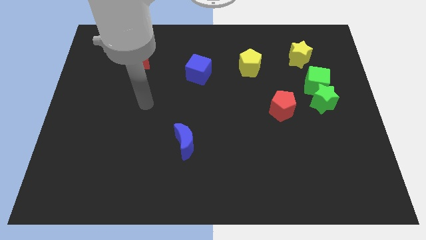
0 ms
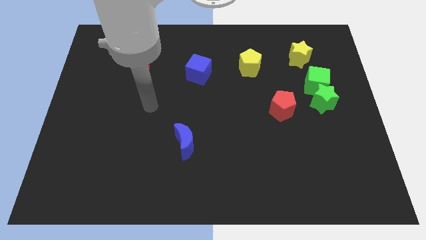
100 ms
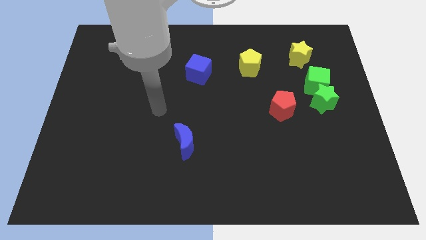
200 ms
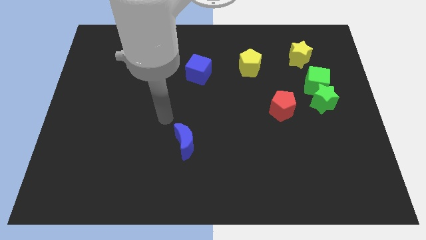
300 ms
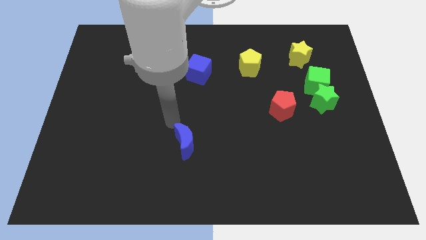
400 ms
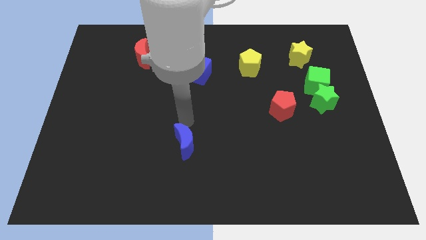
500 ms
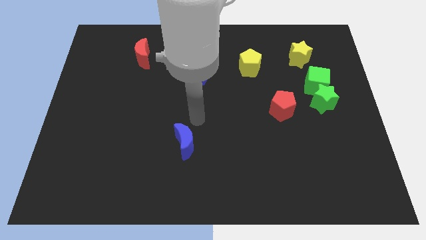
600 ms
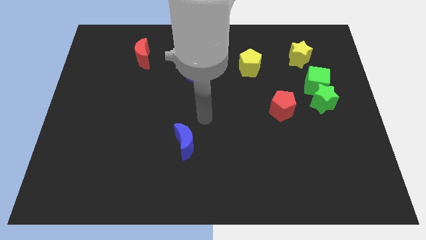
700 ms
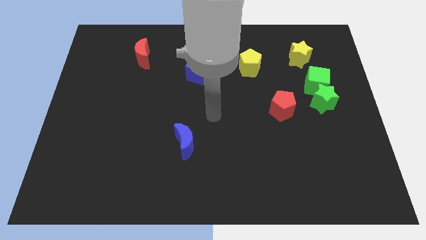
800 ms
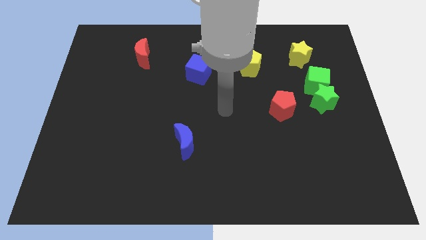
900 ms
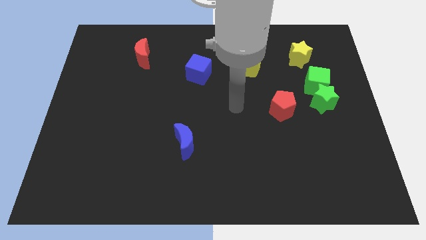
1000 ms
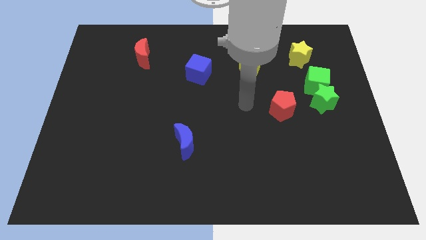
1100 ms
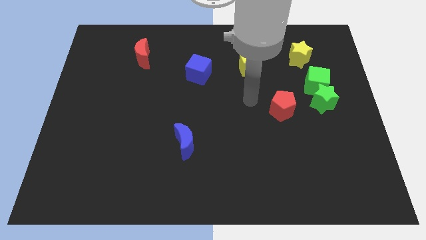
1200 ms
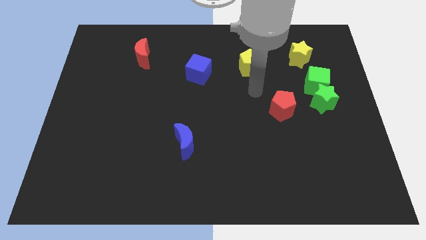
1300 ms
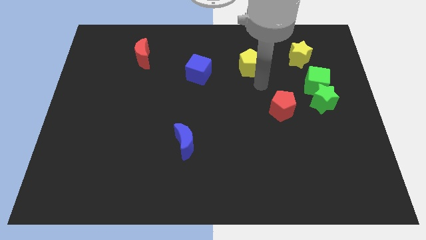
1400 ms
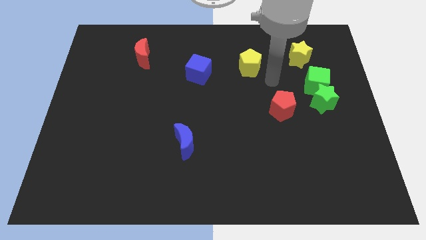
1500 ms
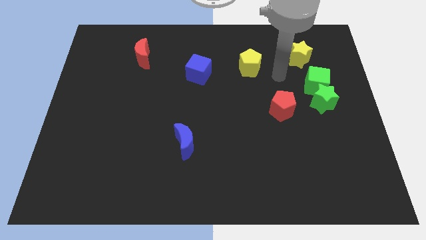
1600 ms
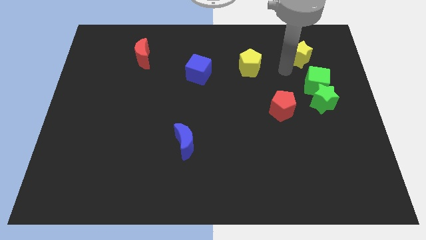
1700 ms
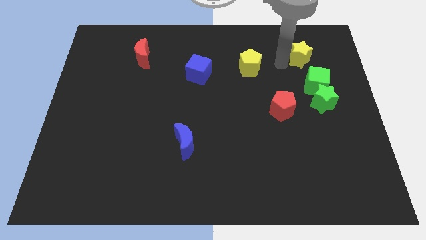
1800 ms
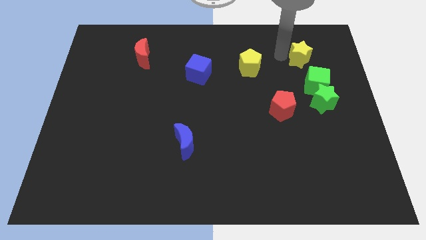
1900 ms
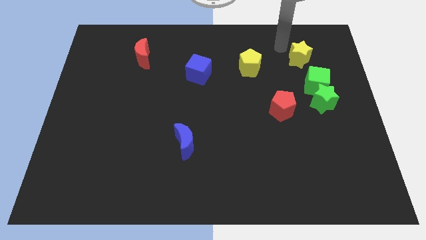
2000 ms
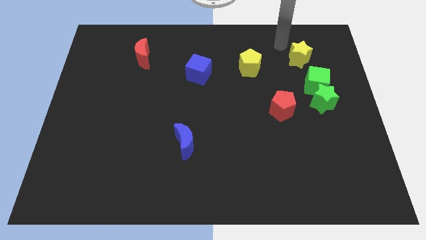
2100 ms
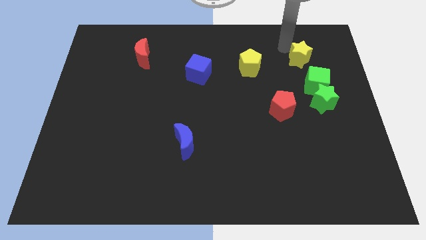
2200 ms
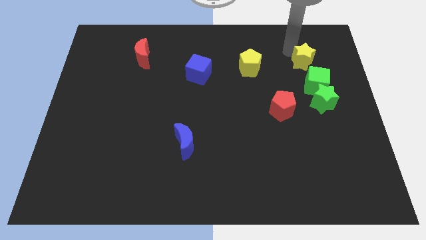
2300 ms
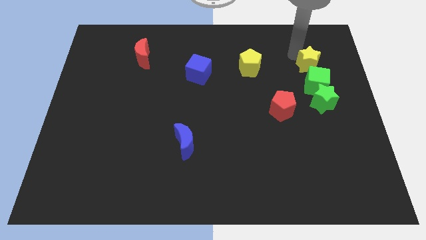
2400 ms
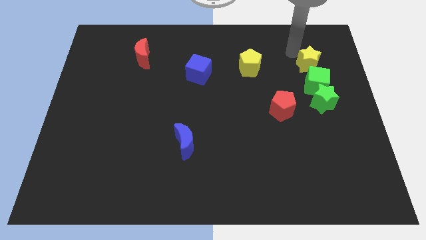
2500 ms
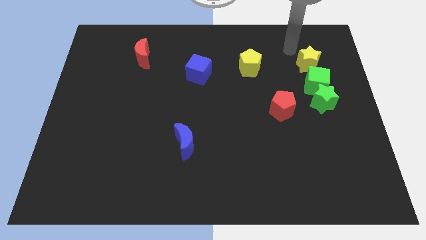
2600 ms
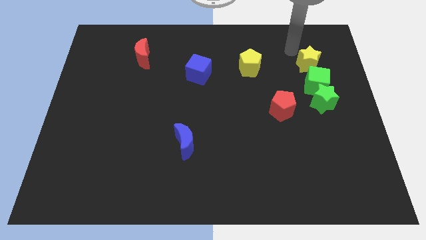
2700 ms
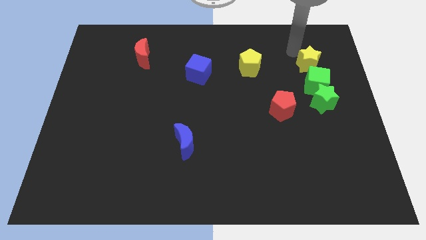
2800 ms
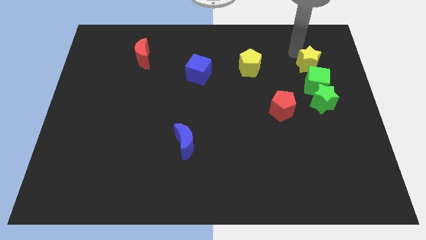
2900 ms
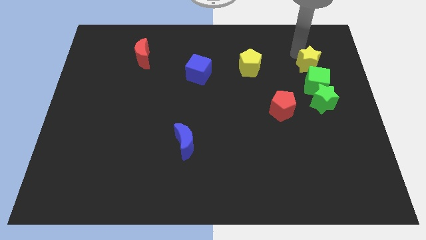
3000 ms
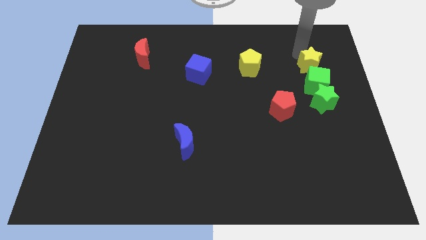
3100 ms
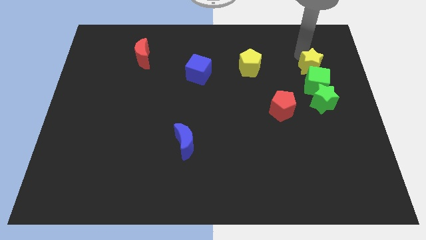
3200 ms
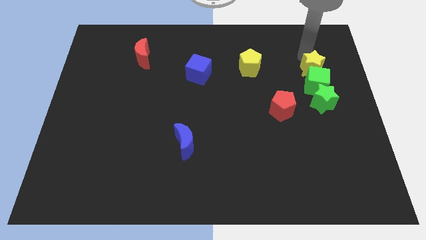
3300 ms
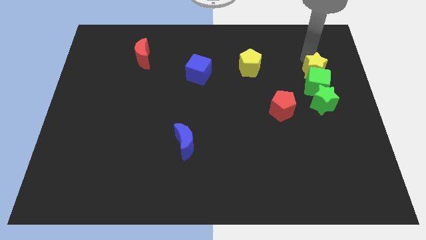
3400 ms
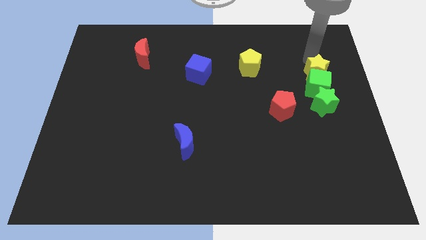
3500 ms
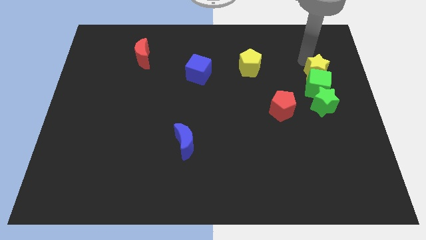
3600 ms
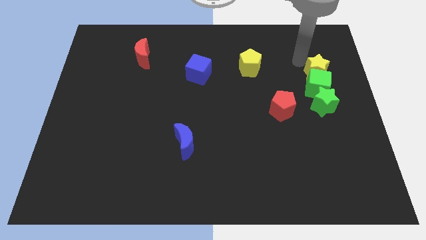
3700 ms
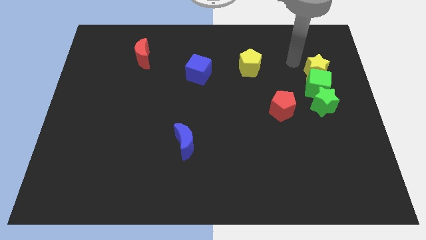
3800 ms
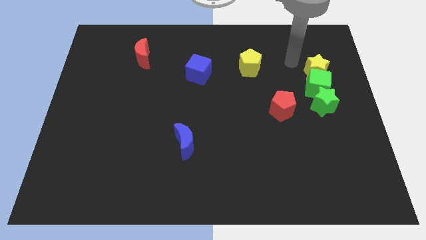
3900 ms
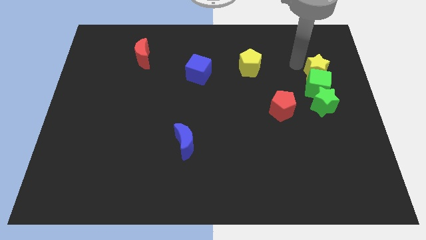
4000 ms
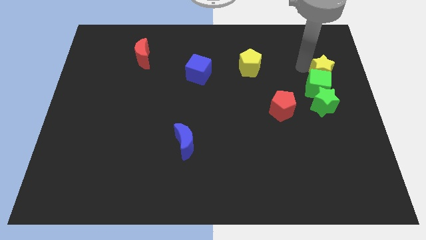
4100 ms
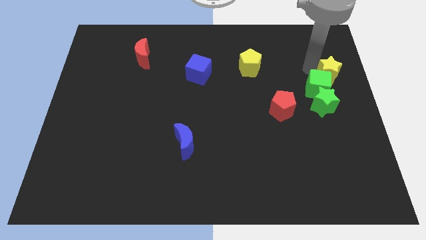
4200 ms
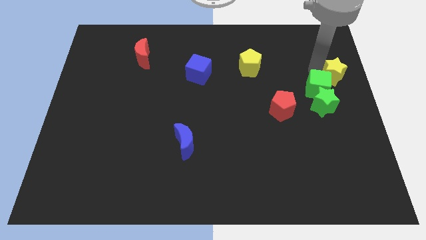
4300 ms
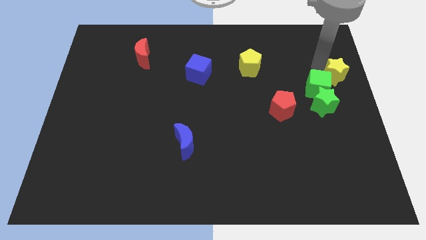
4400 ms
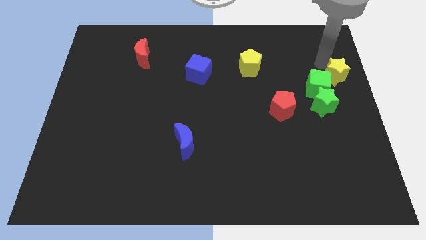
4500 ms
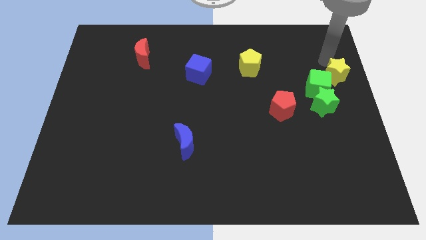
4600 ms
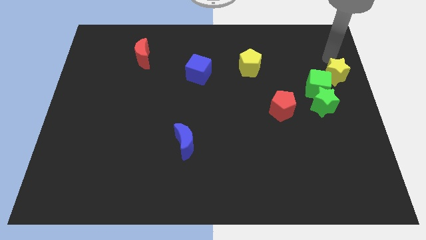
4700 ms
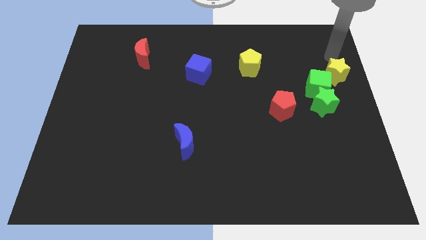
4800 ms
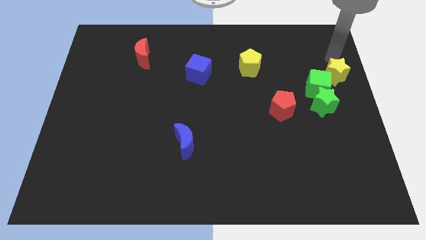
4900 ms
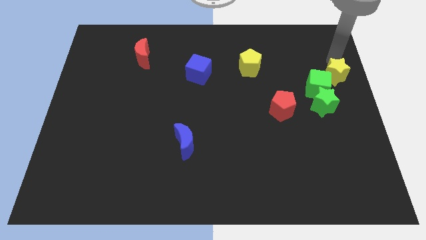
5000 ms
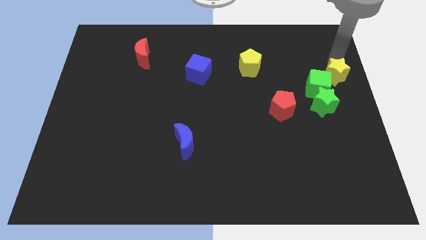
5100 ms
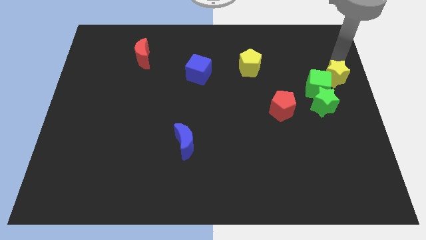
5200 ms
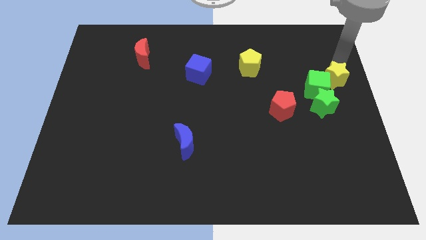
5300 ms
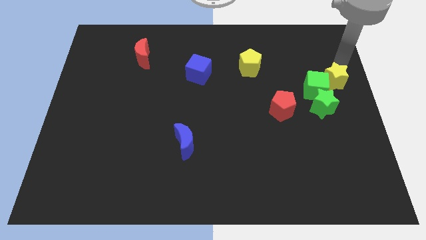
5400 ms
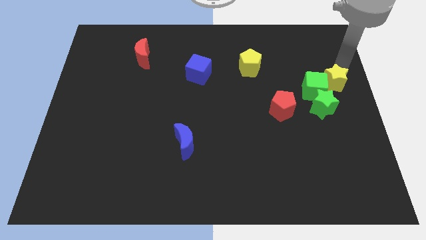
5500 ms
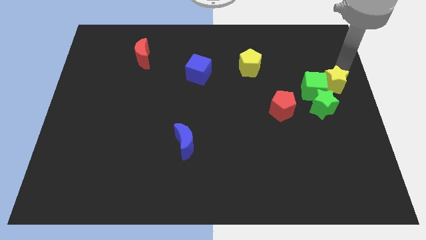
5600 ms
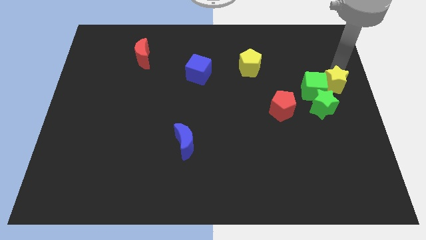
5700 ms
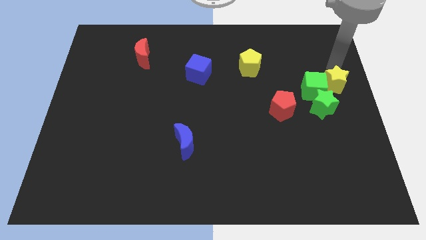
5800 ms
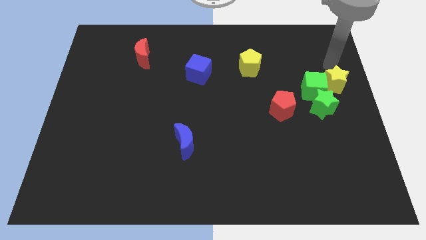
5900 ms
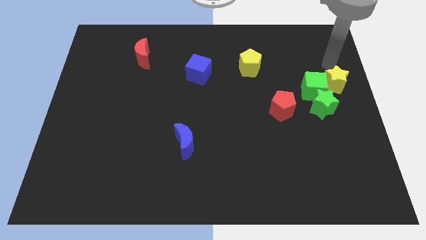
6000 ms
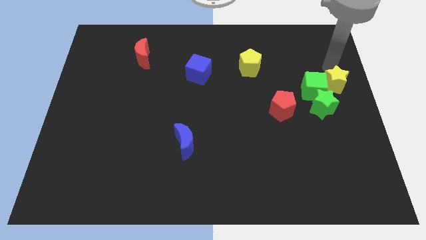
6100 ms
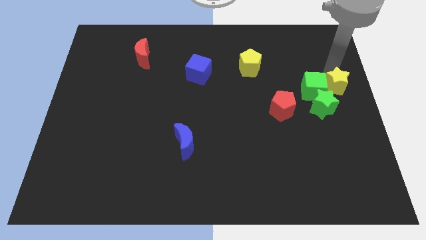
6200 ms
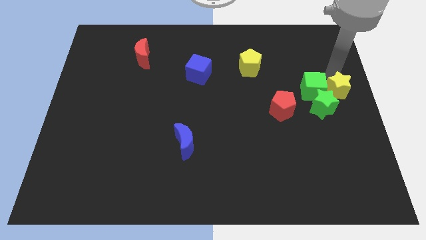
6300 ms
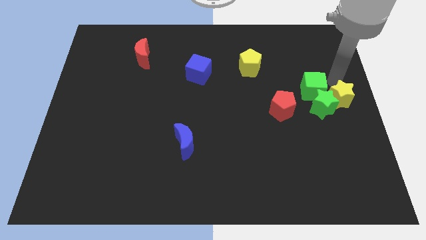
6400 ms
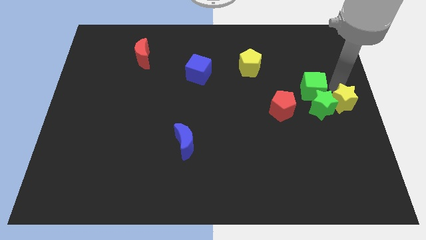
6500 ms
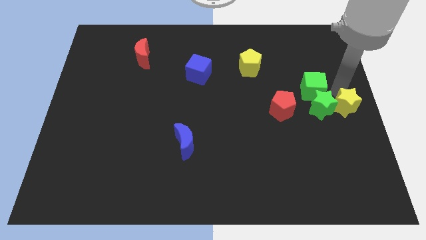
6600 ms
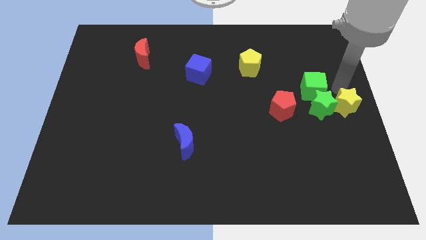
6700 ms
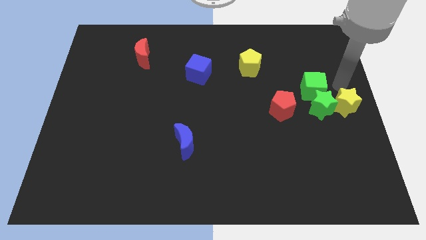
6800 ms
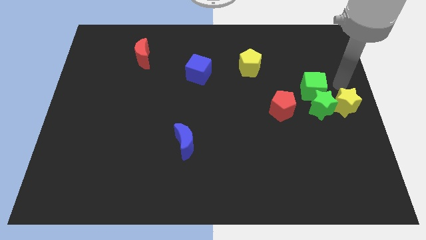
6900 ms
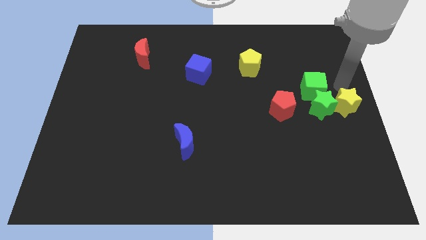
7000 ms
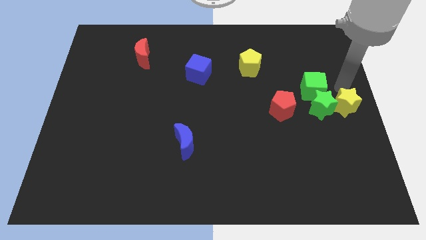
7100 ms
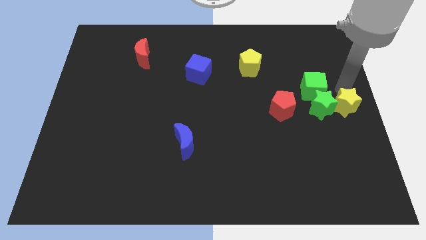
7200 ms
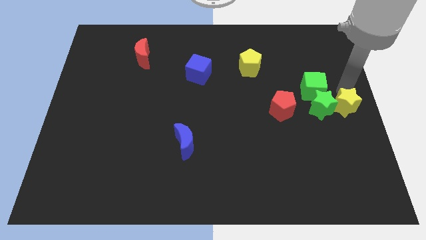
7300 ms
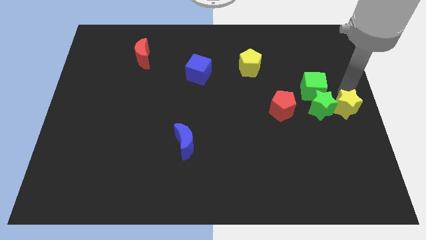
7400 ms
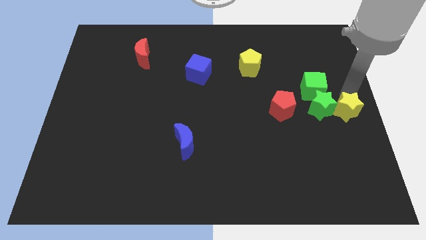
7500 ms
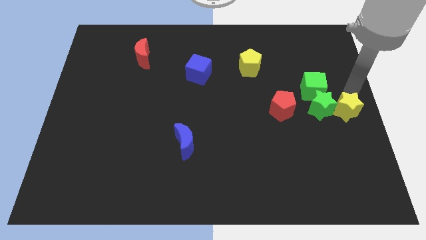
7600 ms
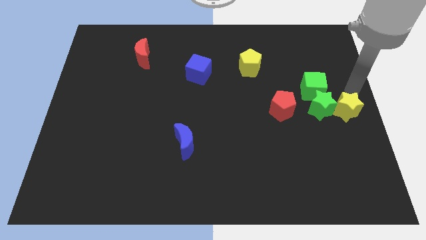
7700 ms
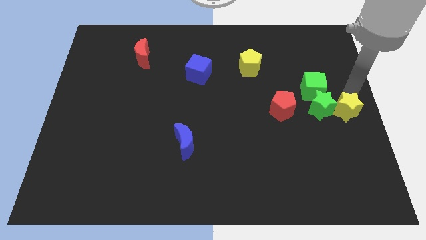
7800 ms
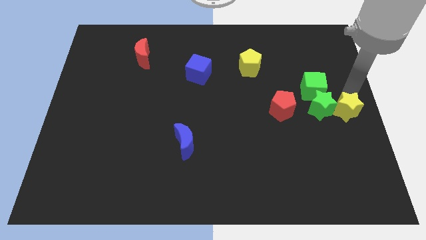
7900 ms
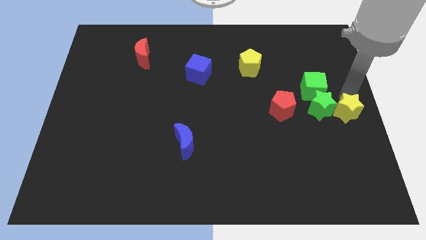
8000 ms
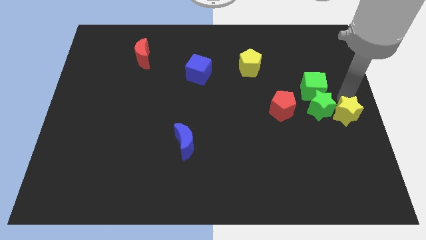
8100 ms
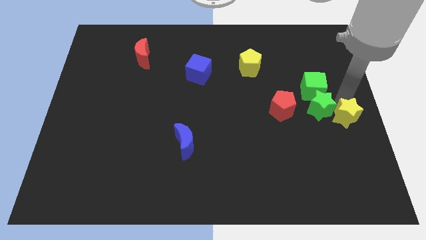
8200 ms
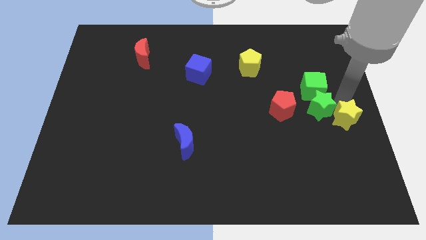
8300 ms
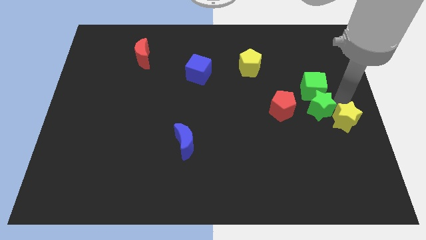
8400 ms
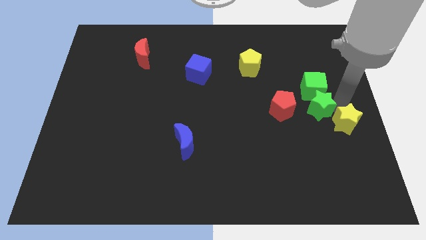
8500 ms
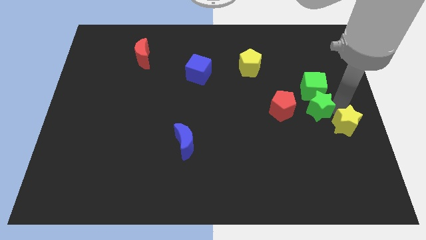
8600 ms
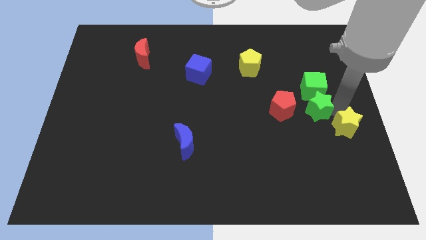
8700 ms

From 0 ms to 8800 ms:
move the yellow star down
